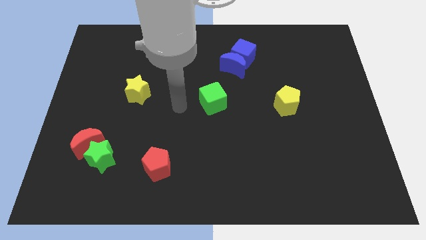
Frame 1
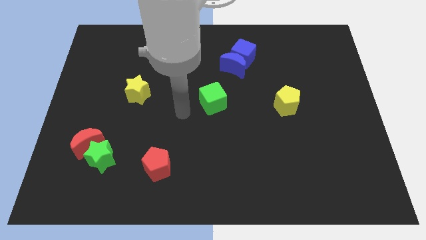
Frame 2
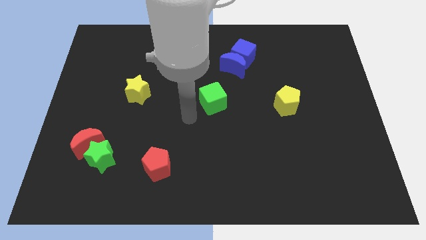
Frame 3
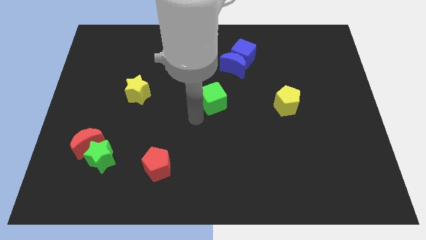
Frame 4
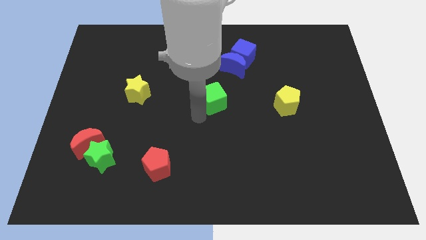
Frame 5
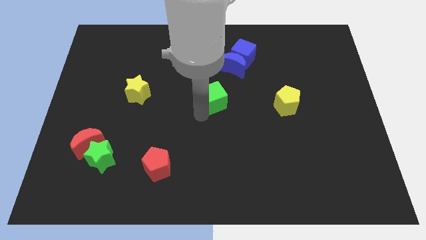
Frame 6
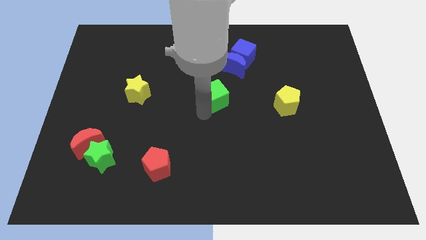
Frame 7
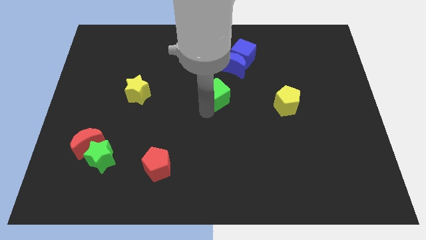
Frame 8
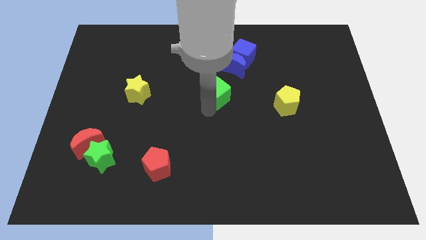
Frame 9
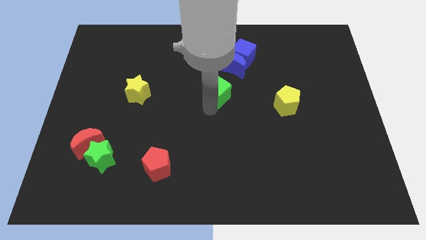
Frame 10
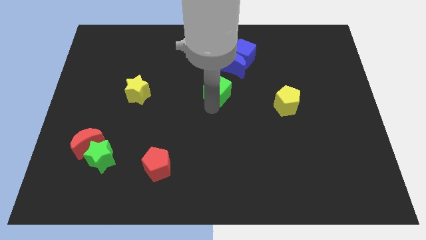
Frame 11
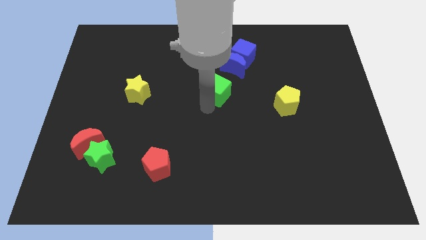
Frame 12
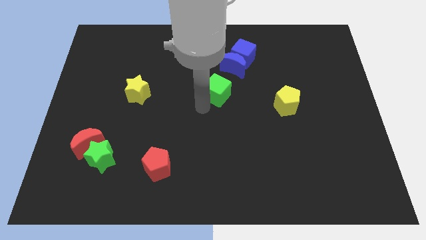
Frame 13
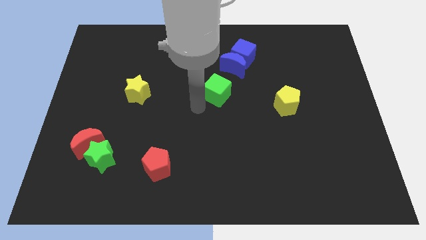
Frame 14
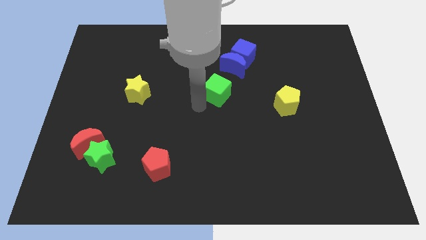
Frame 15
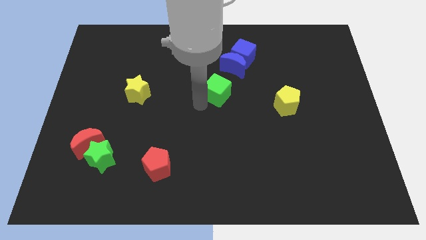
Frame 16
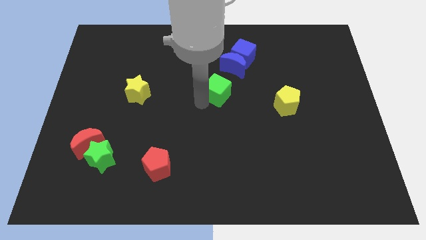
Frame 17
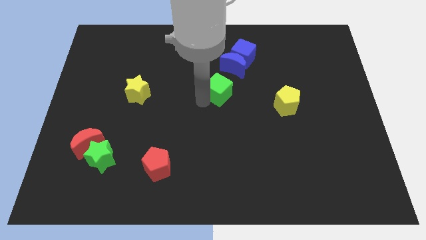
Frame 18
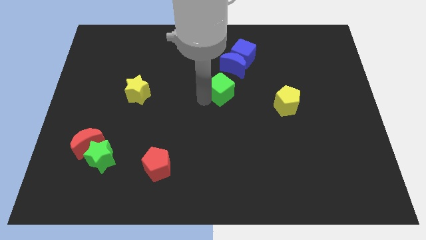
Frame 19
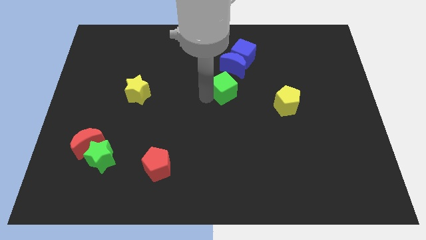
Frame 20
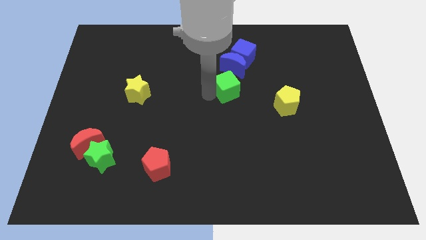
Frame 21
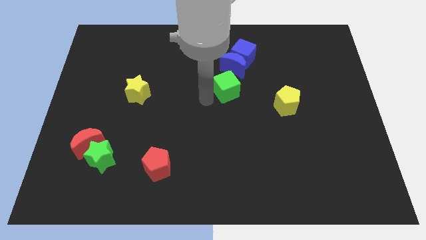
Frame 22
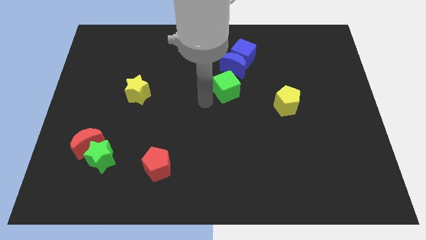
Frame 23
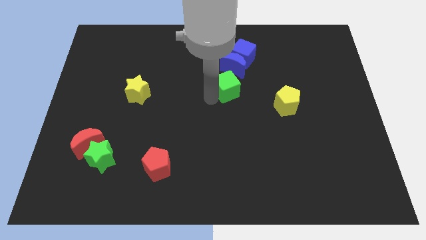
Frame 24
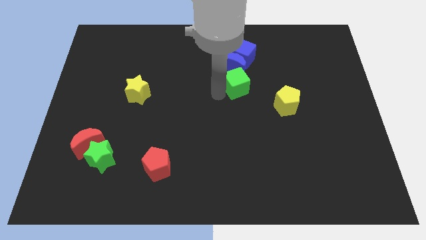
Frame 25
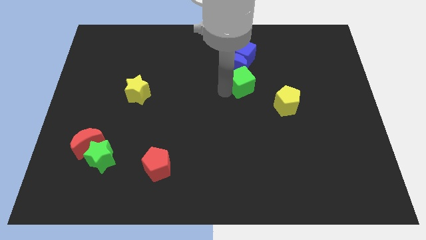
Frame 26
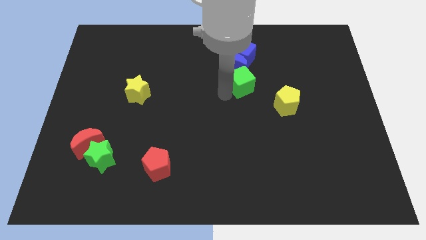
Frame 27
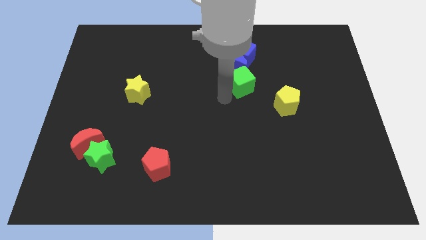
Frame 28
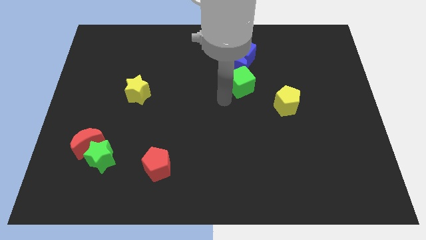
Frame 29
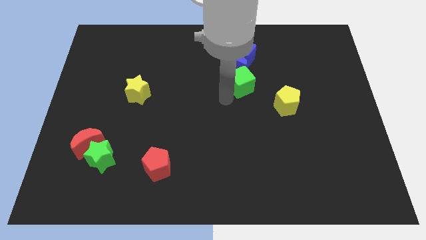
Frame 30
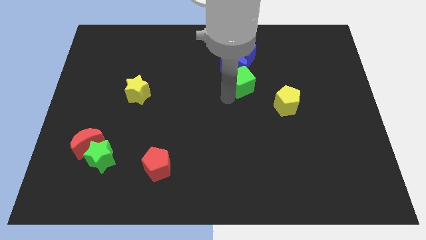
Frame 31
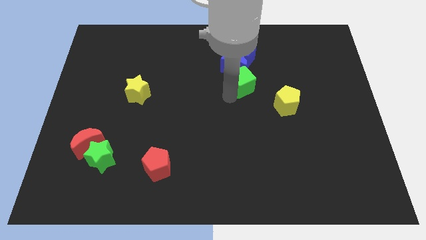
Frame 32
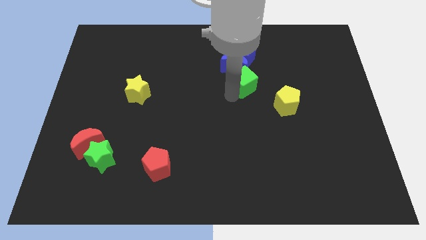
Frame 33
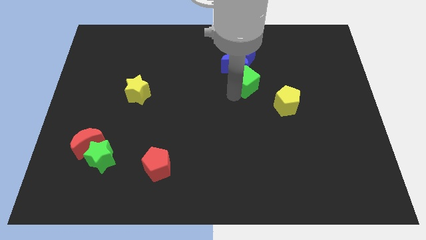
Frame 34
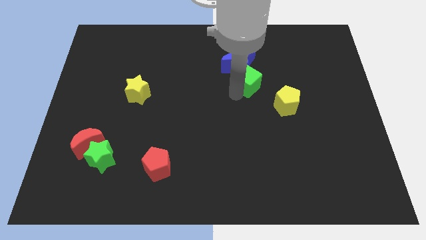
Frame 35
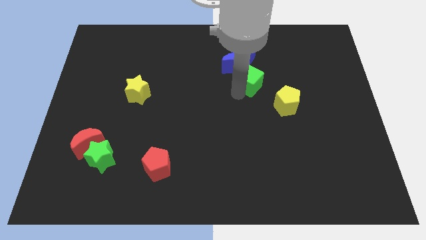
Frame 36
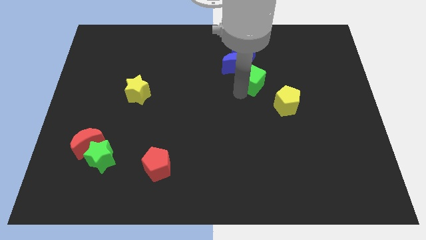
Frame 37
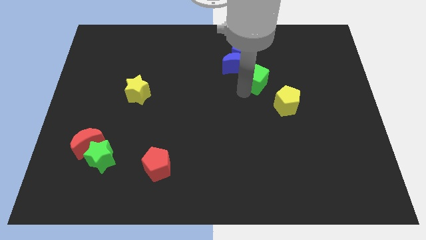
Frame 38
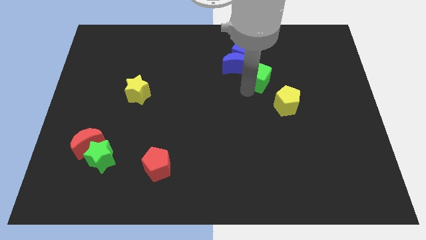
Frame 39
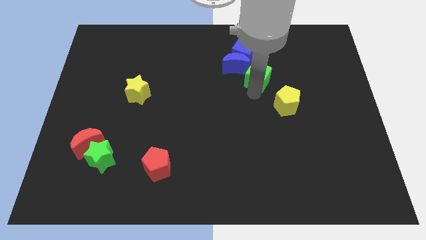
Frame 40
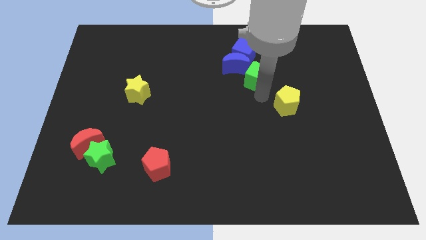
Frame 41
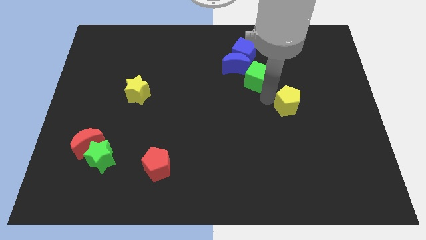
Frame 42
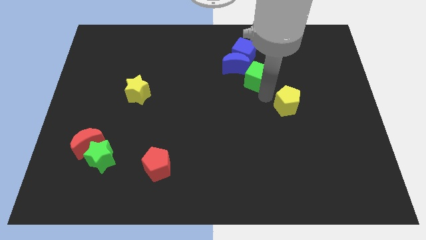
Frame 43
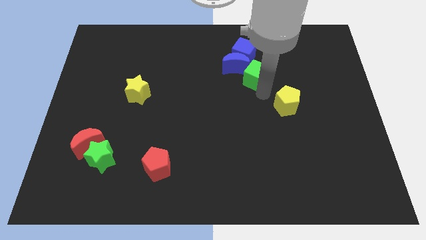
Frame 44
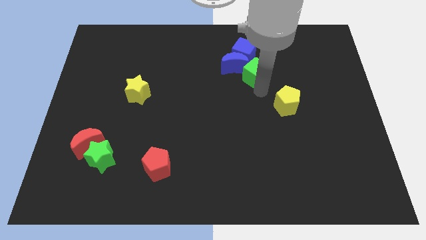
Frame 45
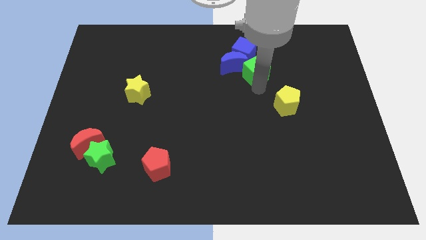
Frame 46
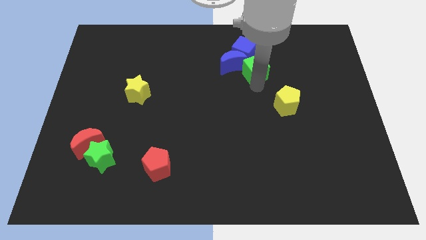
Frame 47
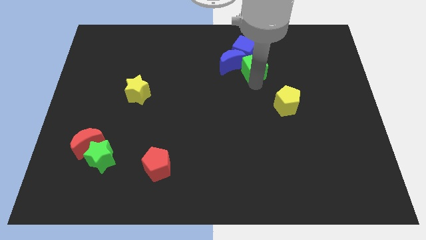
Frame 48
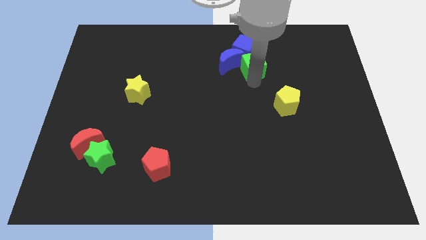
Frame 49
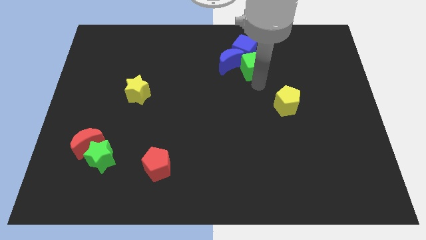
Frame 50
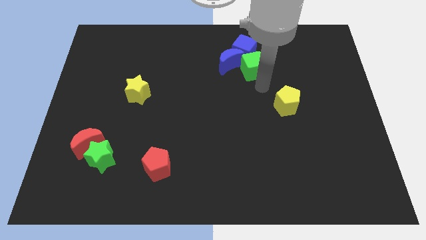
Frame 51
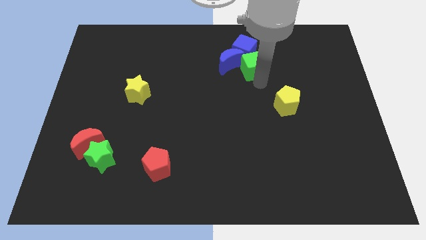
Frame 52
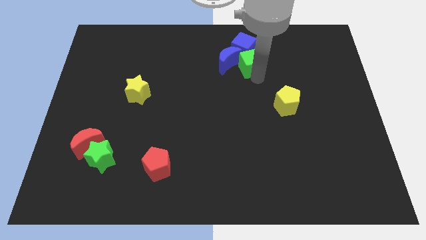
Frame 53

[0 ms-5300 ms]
put the green cube towards the blue cube

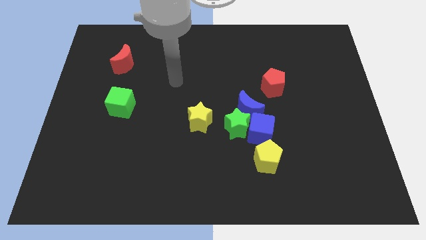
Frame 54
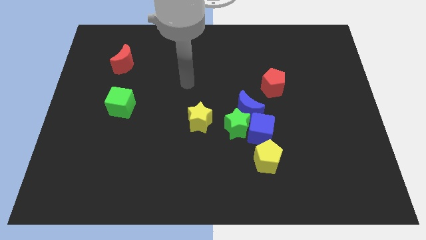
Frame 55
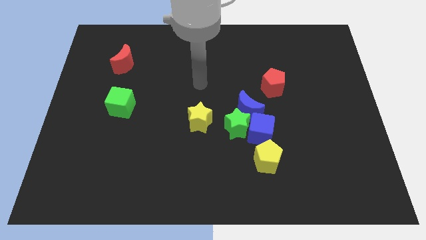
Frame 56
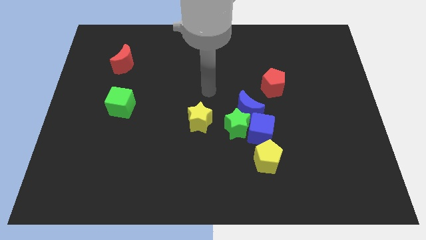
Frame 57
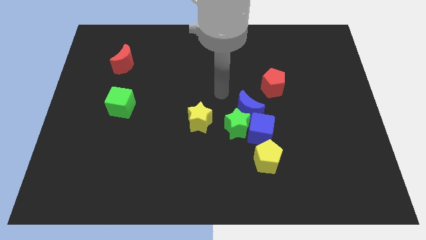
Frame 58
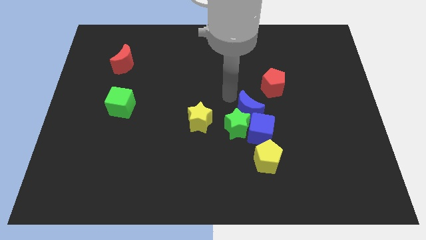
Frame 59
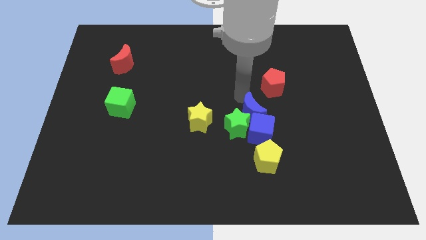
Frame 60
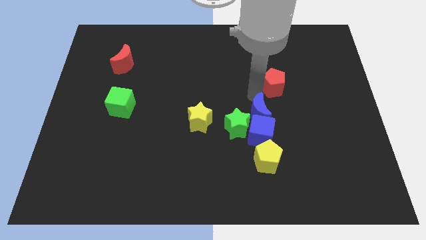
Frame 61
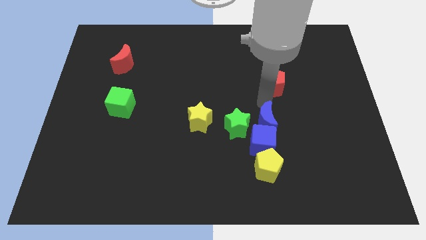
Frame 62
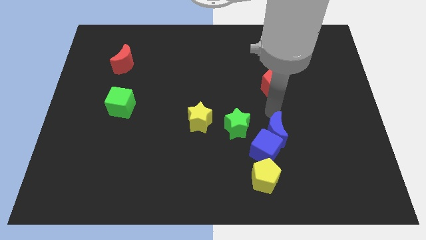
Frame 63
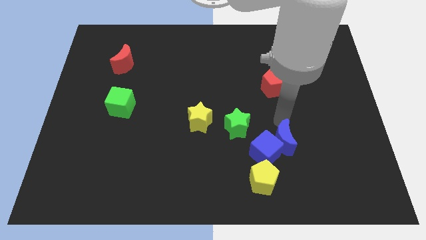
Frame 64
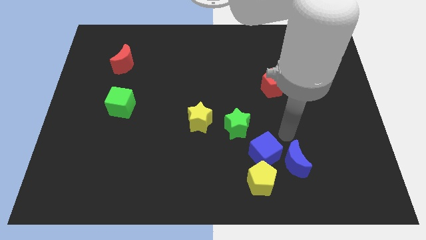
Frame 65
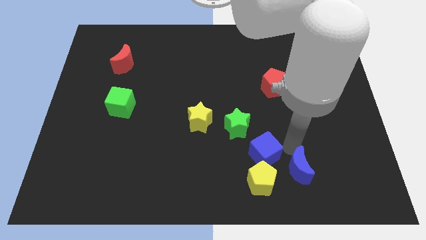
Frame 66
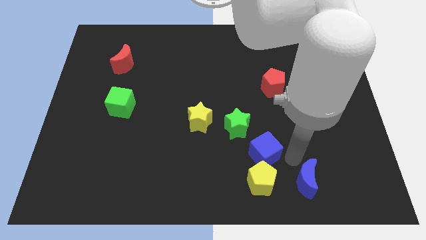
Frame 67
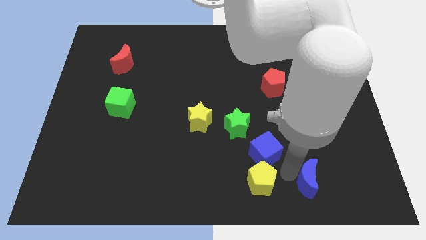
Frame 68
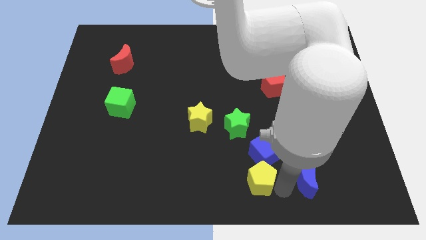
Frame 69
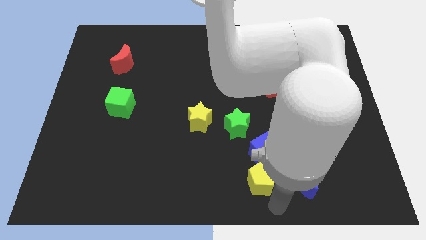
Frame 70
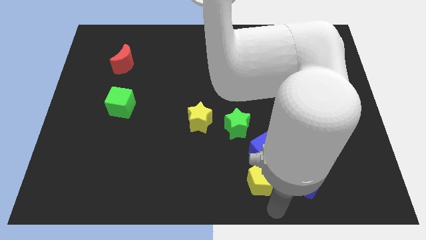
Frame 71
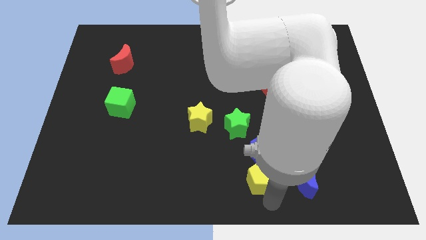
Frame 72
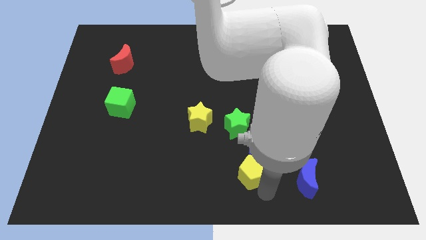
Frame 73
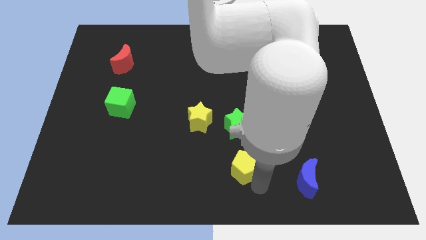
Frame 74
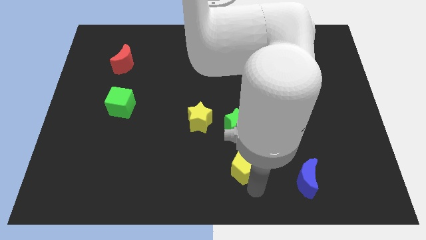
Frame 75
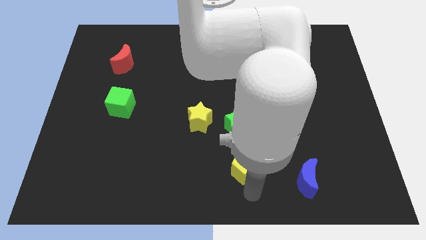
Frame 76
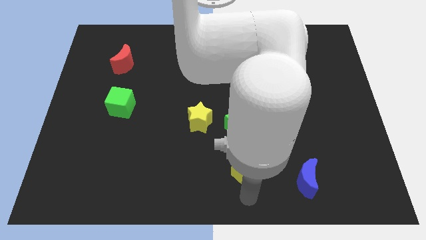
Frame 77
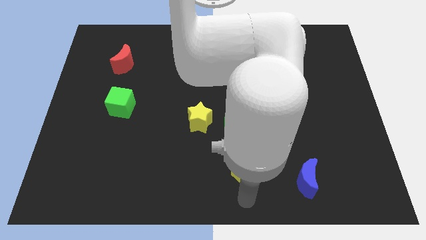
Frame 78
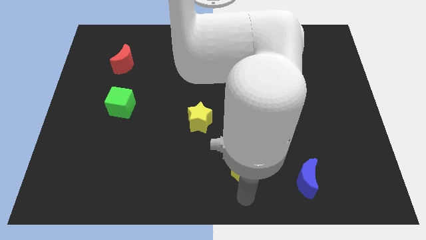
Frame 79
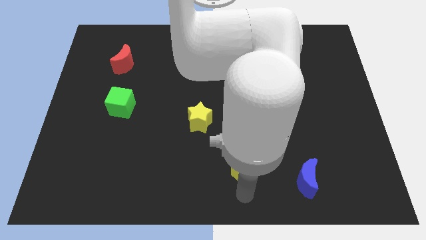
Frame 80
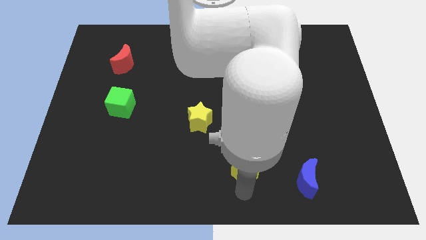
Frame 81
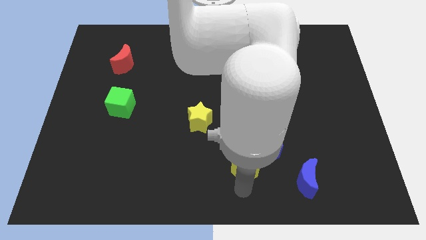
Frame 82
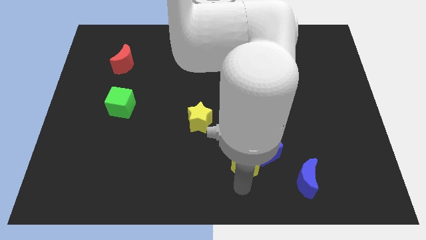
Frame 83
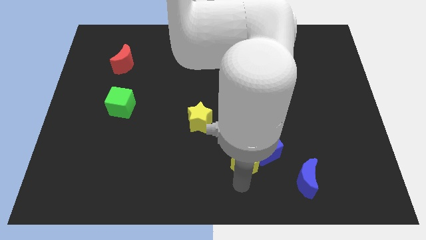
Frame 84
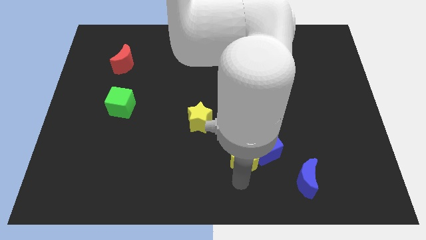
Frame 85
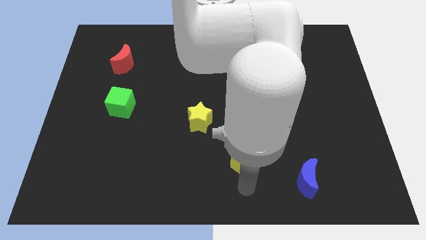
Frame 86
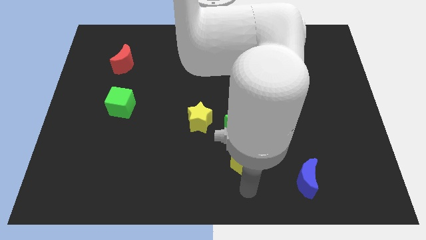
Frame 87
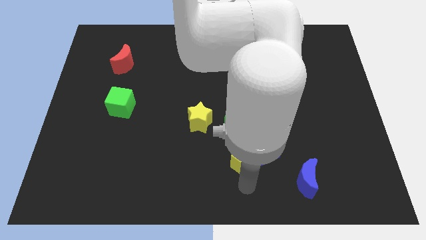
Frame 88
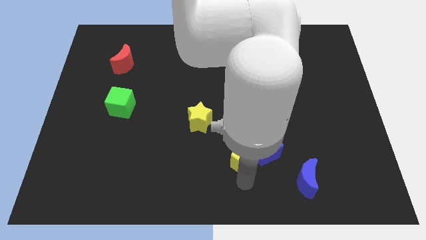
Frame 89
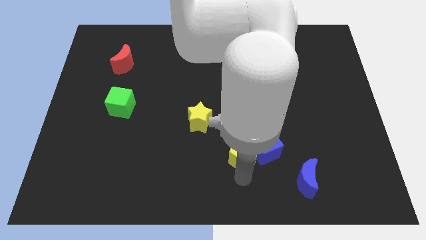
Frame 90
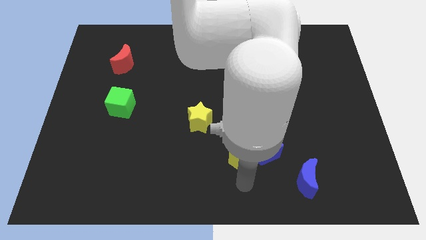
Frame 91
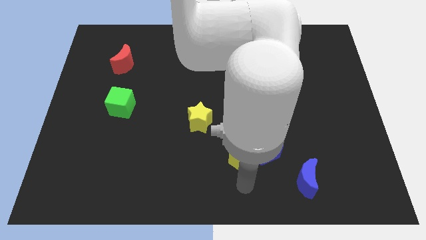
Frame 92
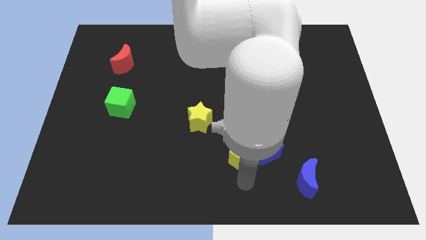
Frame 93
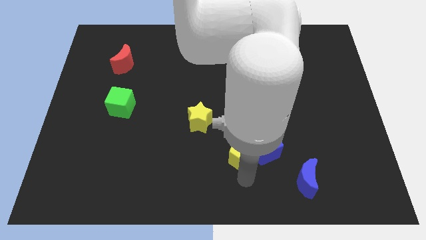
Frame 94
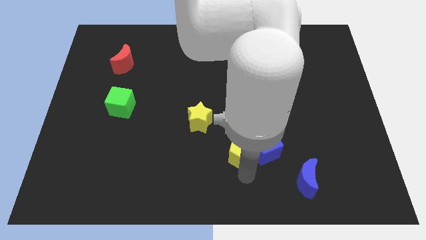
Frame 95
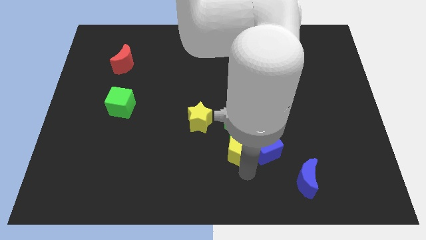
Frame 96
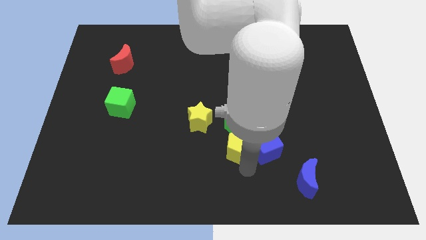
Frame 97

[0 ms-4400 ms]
put the yellow pentagon next to the green star
